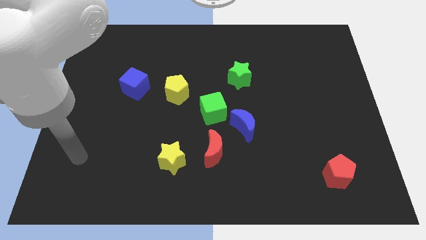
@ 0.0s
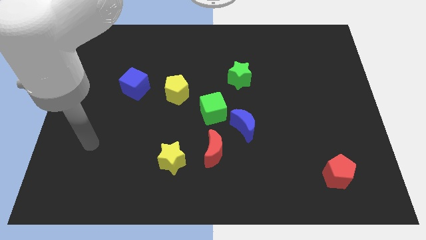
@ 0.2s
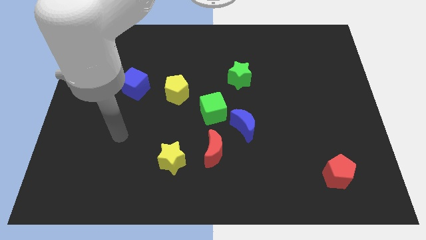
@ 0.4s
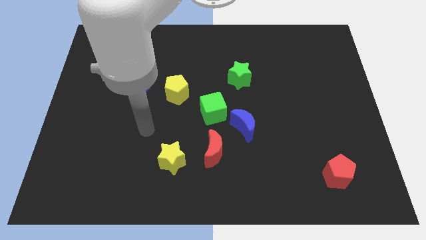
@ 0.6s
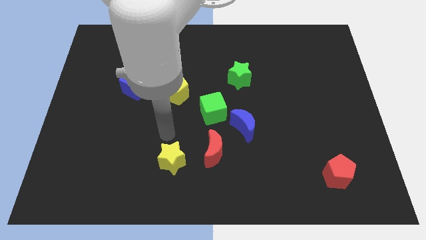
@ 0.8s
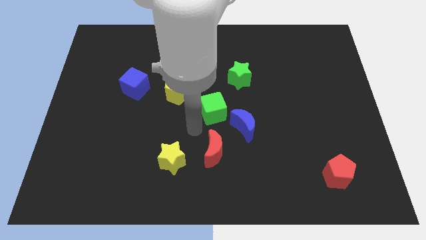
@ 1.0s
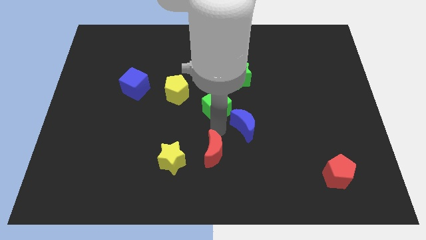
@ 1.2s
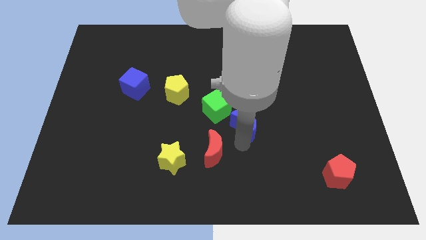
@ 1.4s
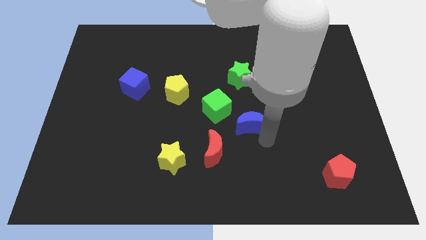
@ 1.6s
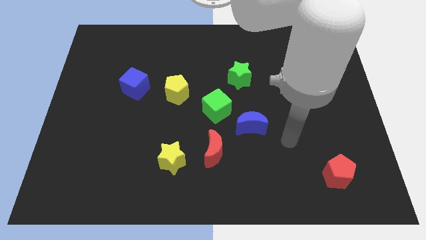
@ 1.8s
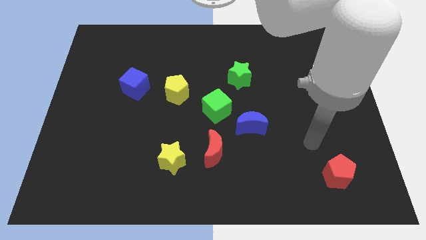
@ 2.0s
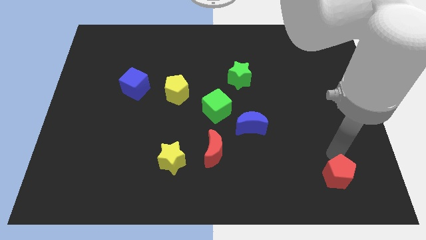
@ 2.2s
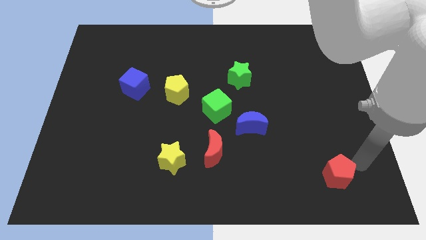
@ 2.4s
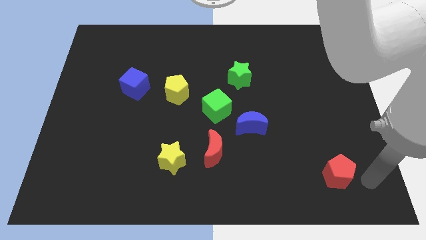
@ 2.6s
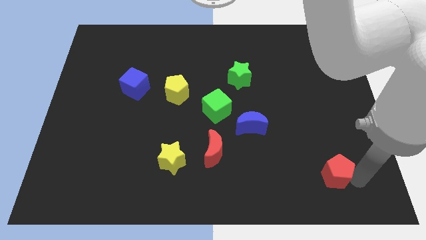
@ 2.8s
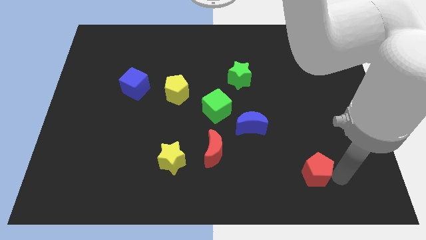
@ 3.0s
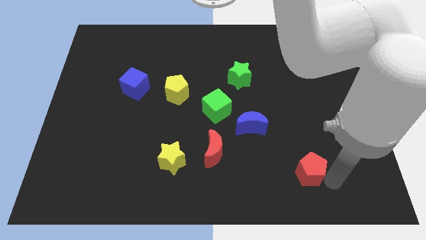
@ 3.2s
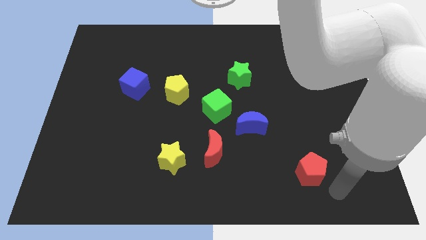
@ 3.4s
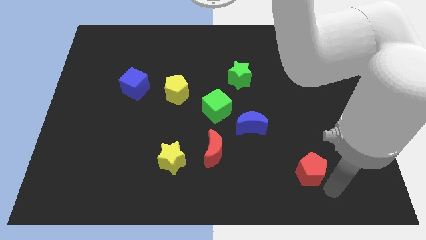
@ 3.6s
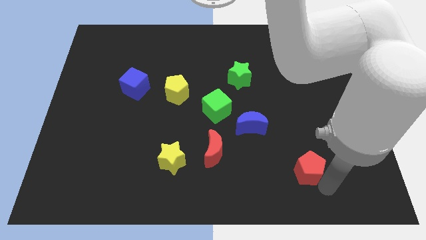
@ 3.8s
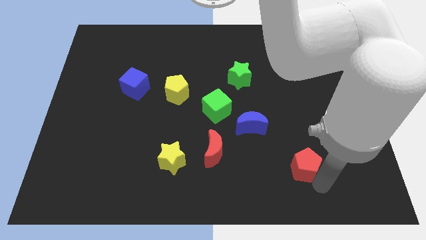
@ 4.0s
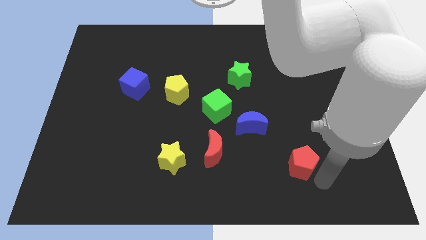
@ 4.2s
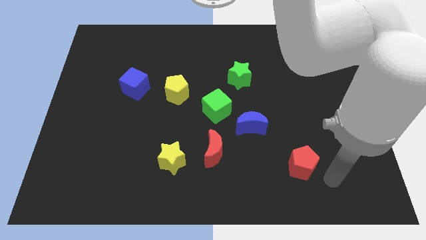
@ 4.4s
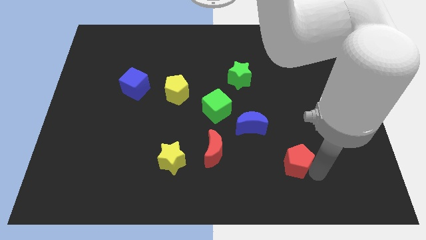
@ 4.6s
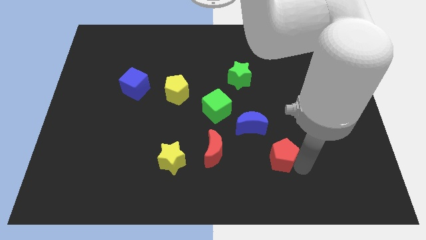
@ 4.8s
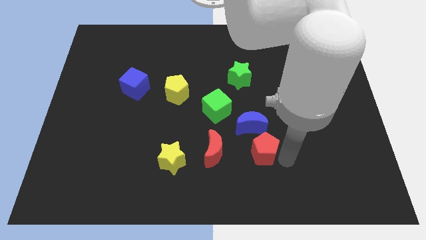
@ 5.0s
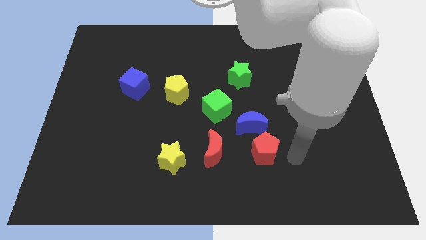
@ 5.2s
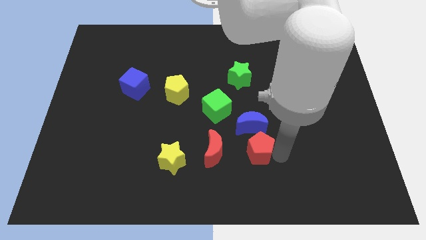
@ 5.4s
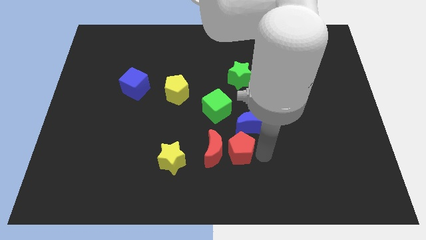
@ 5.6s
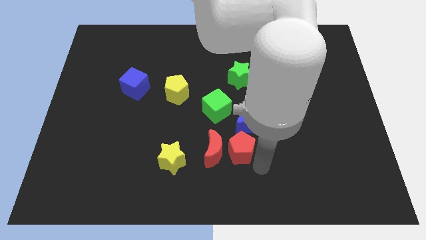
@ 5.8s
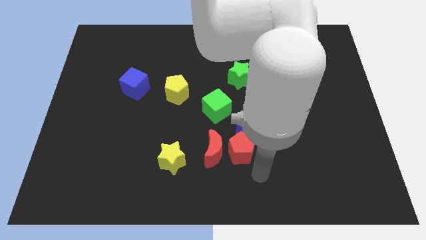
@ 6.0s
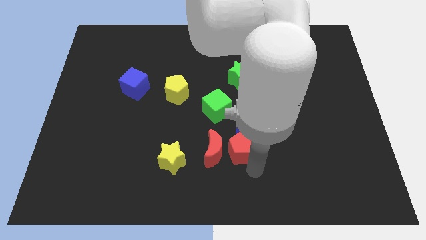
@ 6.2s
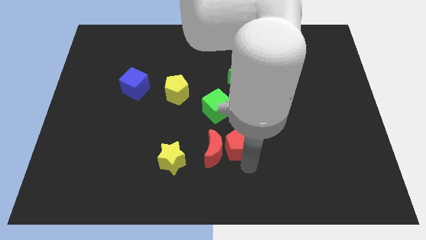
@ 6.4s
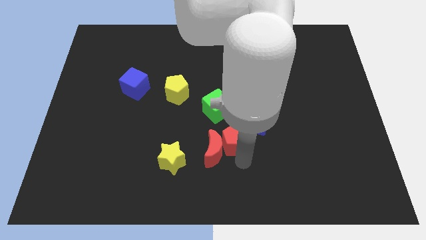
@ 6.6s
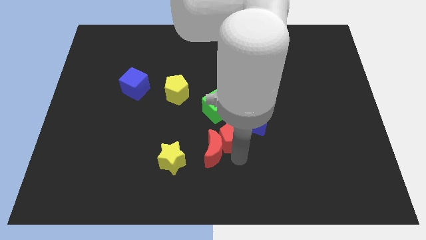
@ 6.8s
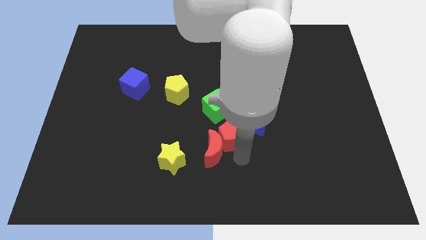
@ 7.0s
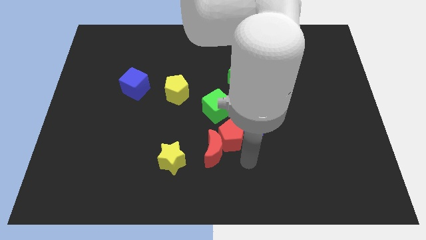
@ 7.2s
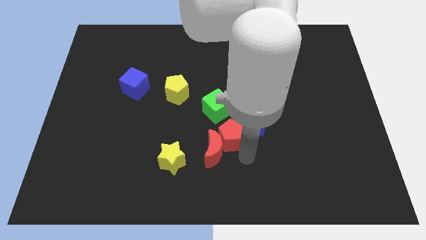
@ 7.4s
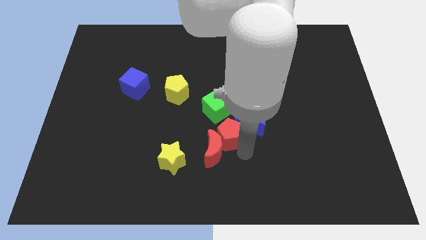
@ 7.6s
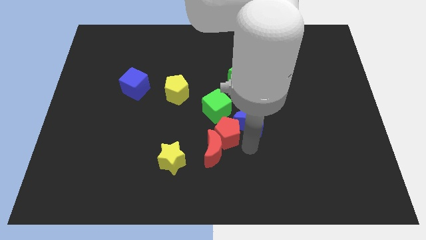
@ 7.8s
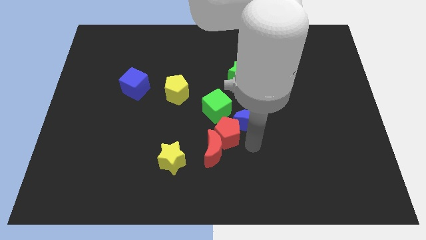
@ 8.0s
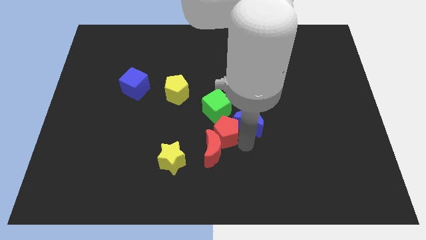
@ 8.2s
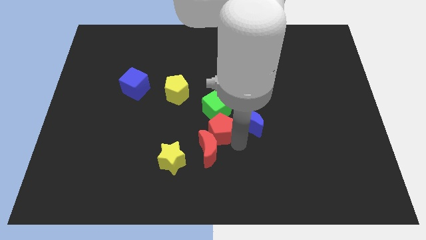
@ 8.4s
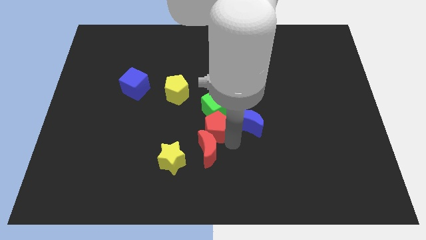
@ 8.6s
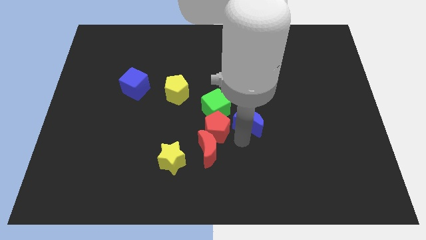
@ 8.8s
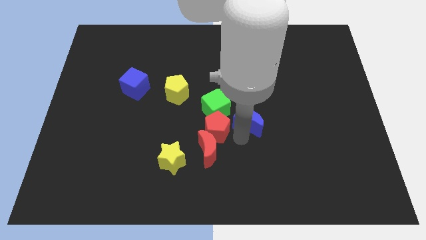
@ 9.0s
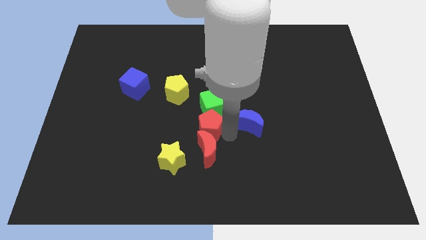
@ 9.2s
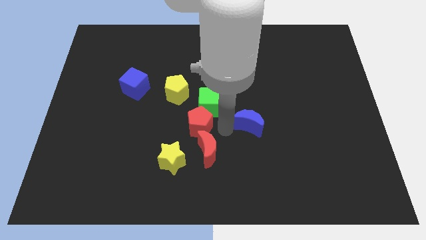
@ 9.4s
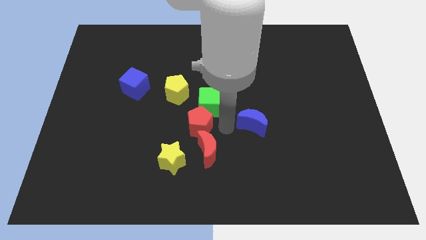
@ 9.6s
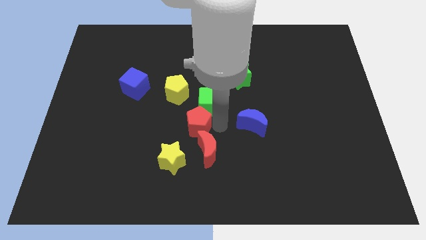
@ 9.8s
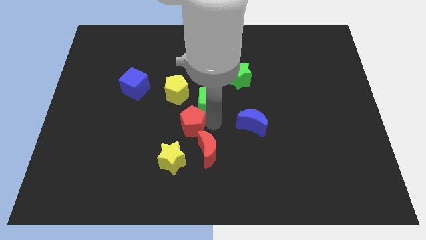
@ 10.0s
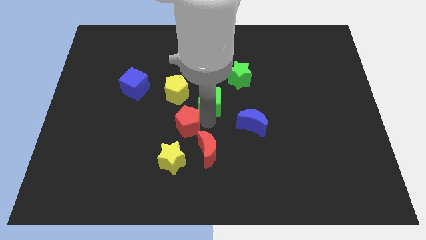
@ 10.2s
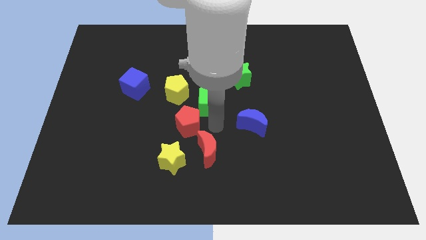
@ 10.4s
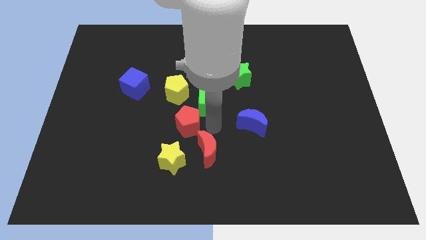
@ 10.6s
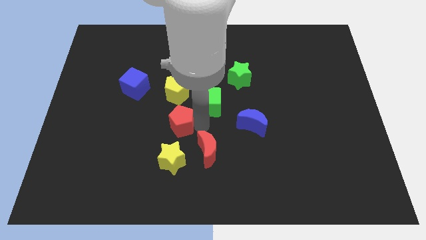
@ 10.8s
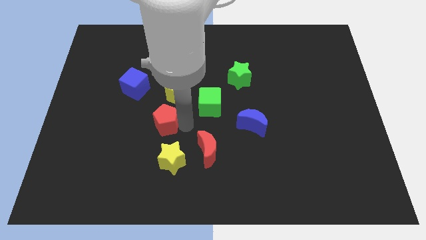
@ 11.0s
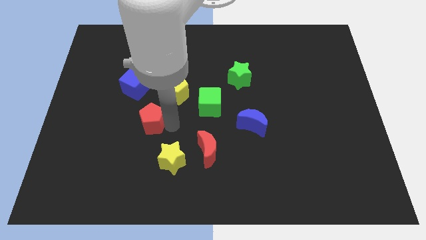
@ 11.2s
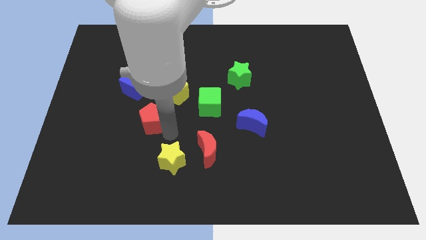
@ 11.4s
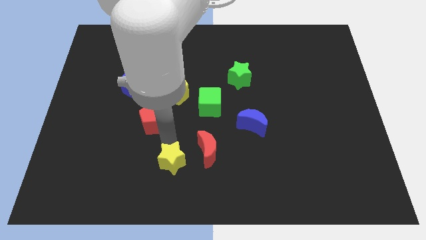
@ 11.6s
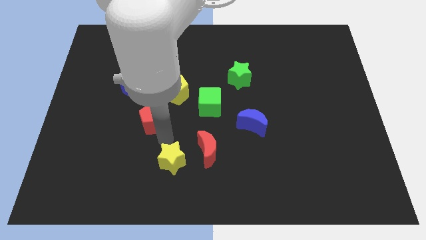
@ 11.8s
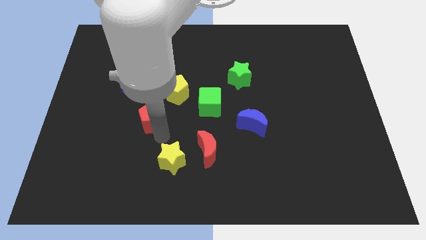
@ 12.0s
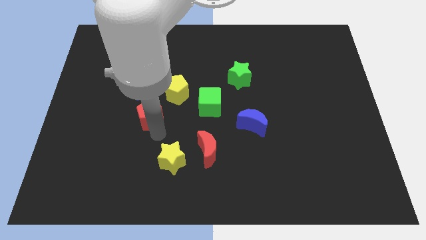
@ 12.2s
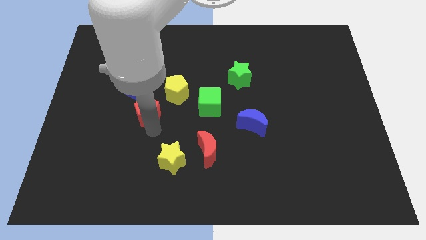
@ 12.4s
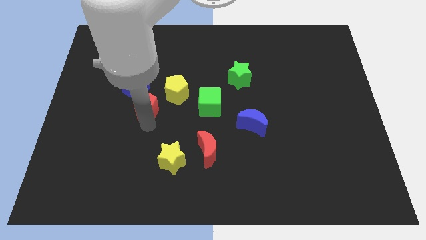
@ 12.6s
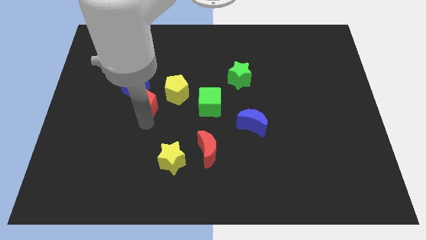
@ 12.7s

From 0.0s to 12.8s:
put the red pentagon to the left of the yellow pentagon
